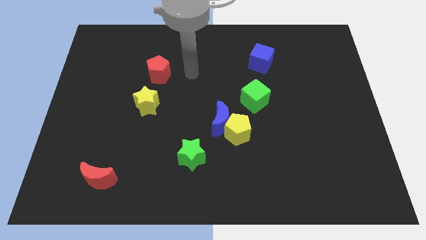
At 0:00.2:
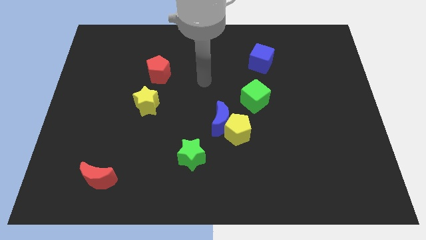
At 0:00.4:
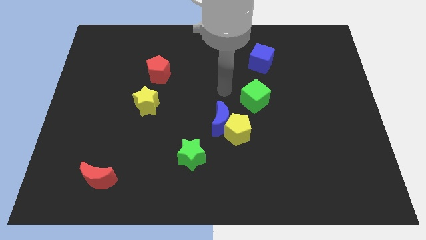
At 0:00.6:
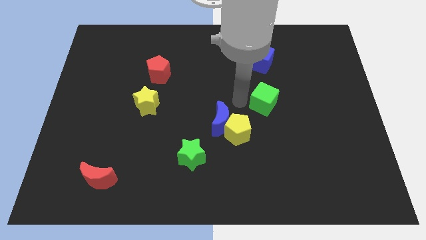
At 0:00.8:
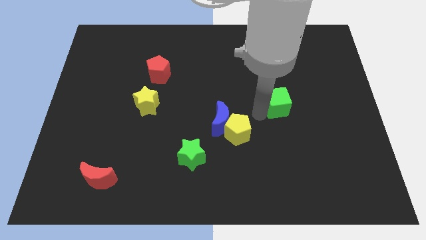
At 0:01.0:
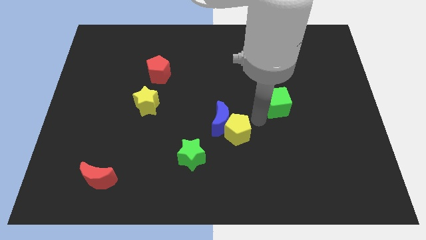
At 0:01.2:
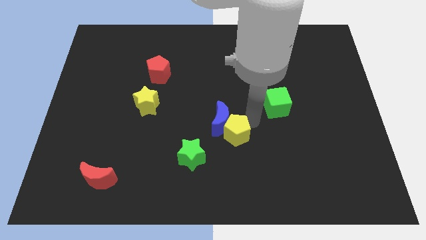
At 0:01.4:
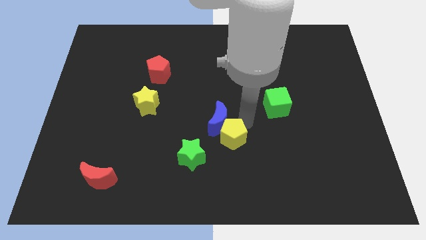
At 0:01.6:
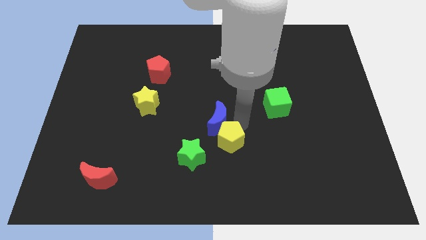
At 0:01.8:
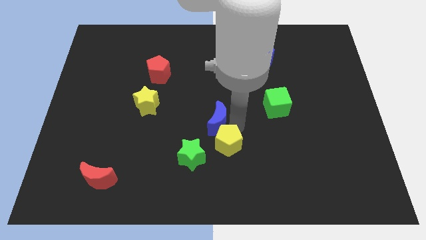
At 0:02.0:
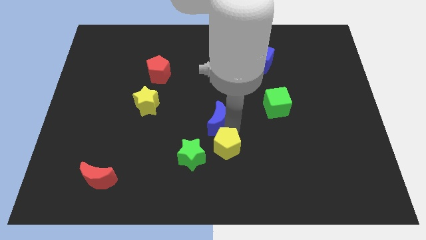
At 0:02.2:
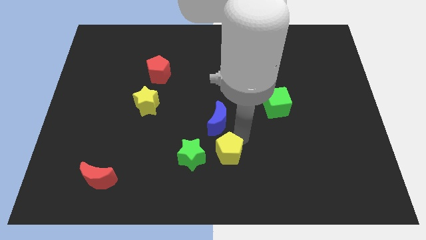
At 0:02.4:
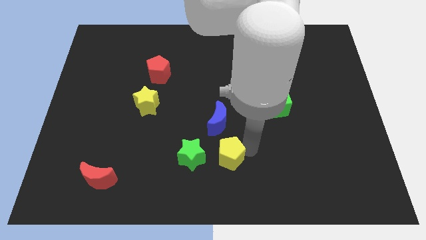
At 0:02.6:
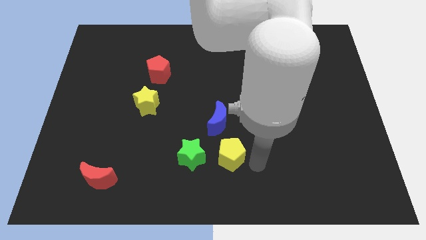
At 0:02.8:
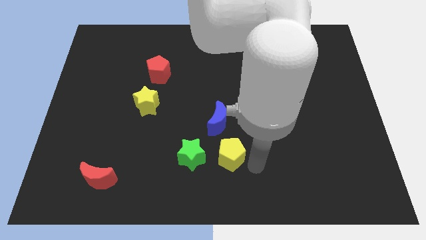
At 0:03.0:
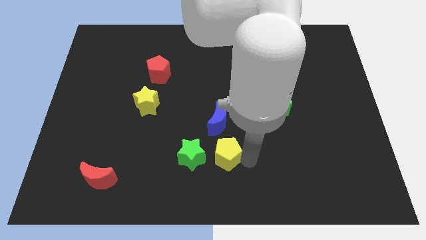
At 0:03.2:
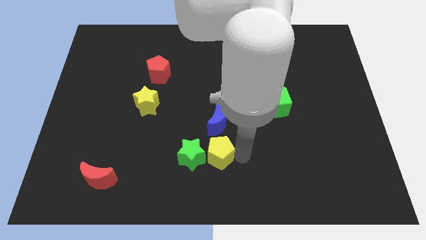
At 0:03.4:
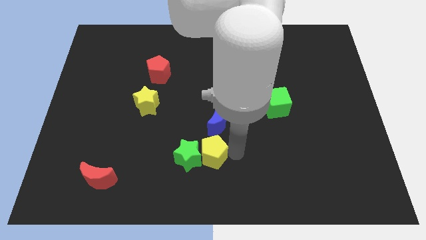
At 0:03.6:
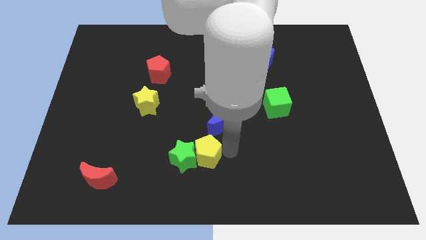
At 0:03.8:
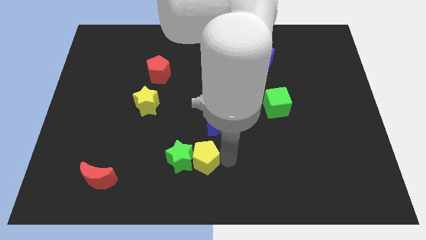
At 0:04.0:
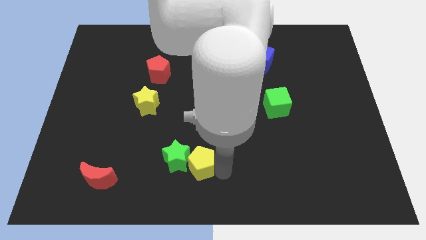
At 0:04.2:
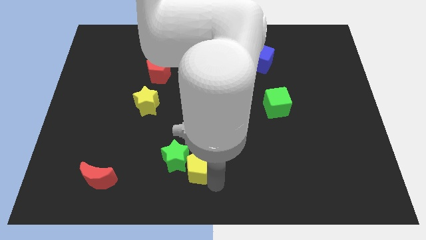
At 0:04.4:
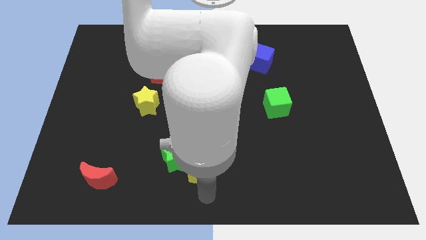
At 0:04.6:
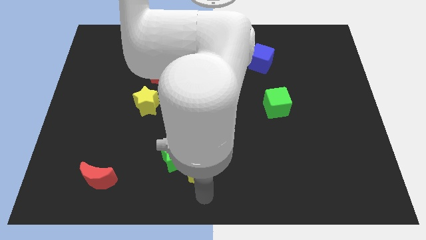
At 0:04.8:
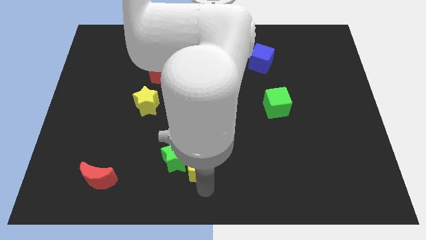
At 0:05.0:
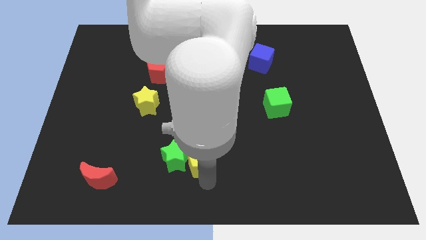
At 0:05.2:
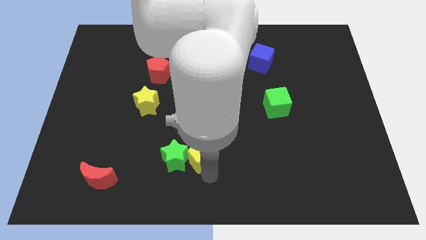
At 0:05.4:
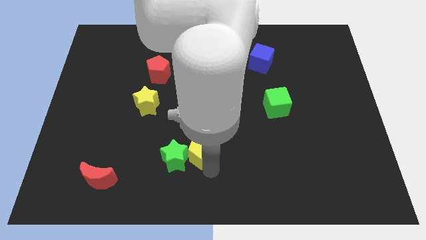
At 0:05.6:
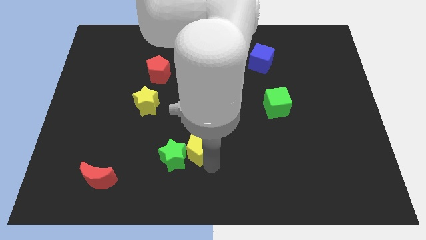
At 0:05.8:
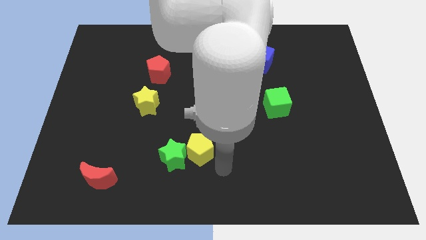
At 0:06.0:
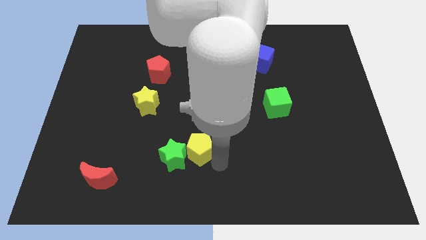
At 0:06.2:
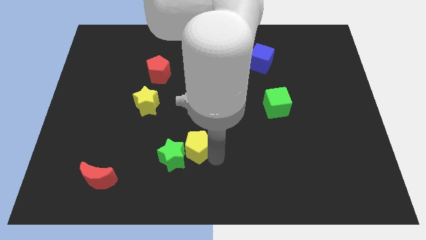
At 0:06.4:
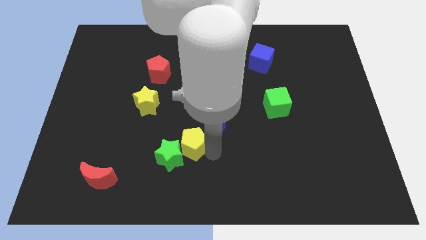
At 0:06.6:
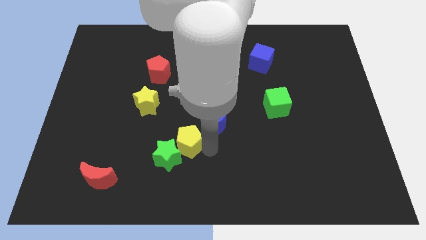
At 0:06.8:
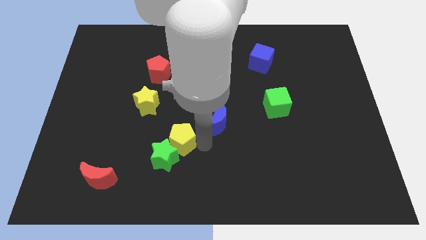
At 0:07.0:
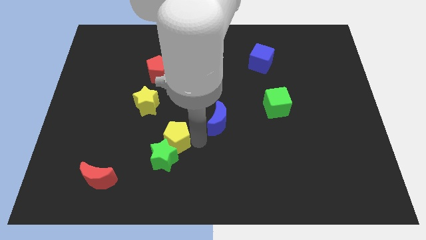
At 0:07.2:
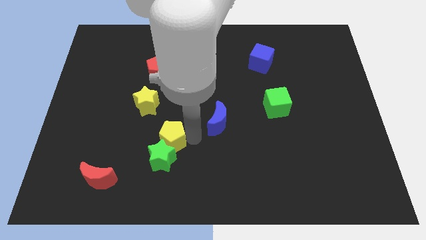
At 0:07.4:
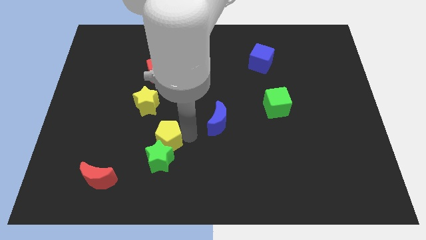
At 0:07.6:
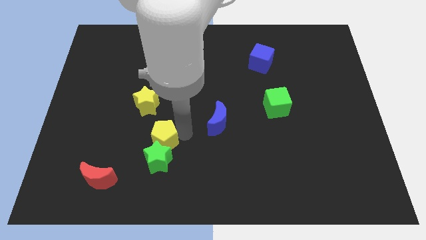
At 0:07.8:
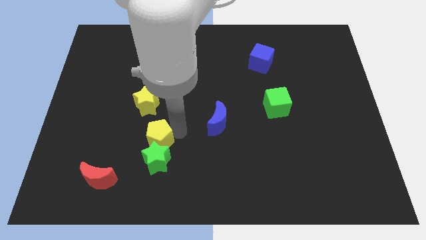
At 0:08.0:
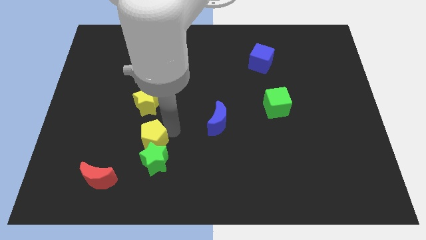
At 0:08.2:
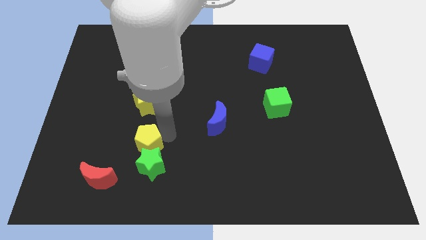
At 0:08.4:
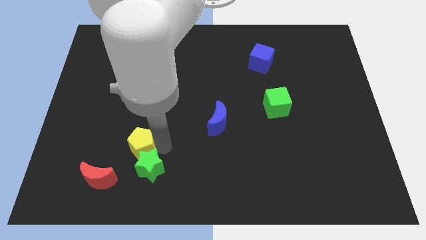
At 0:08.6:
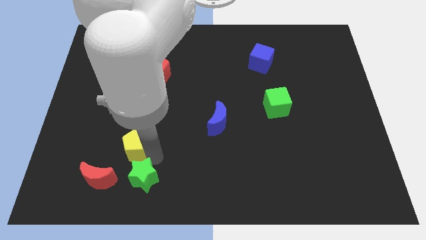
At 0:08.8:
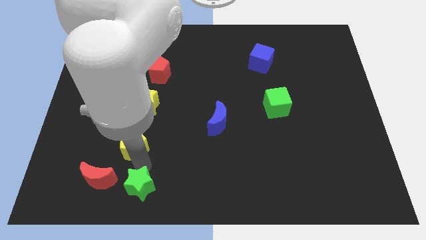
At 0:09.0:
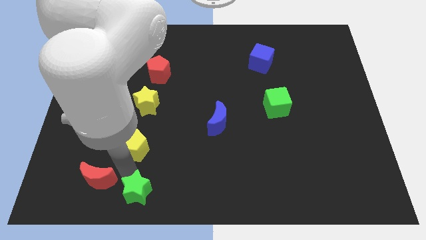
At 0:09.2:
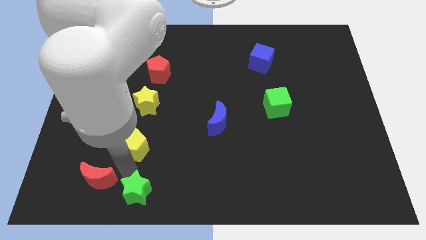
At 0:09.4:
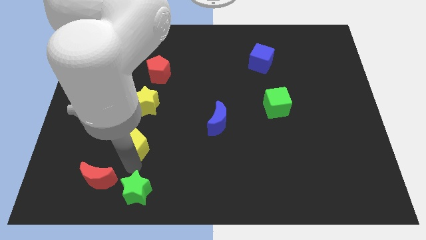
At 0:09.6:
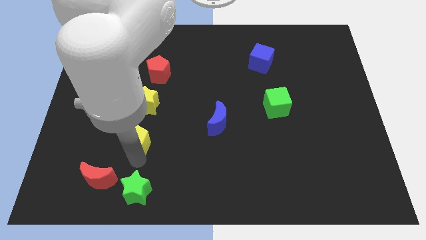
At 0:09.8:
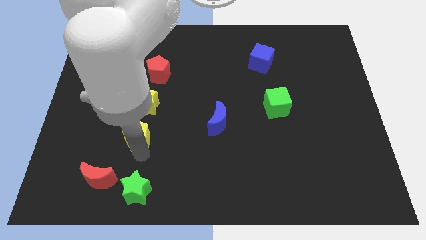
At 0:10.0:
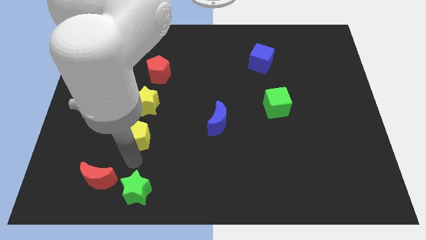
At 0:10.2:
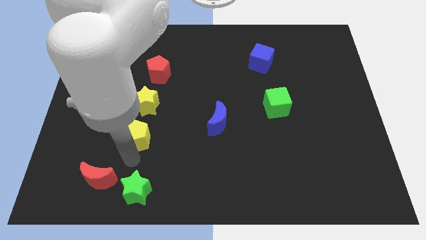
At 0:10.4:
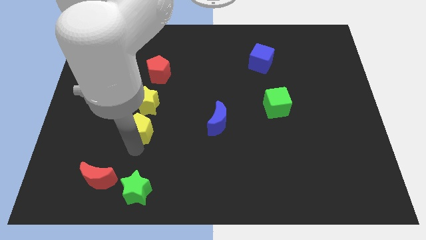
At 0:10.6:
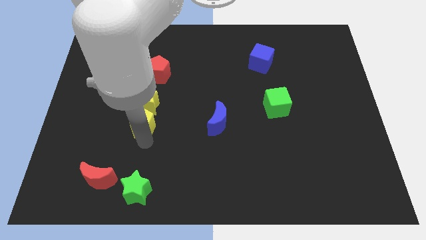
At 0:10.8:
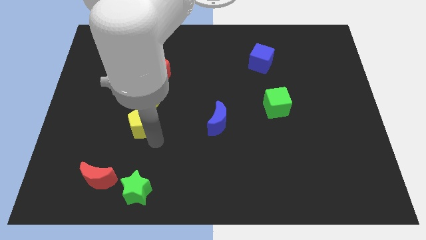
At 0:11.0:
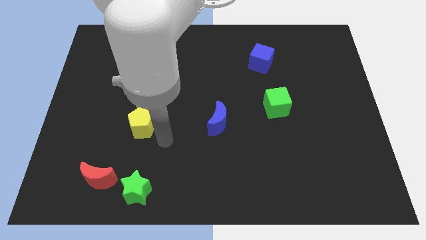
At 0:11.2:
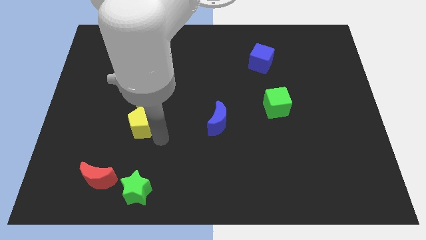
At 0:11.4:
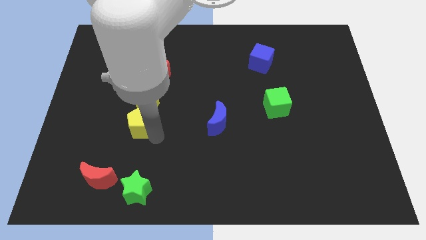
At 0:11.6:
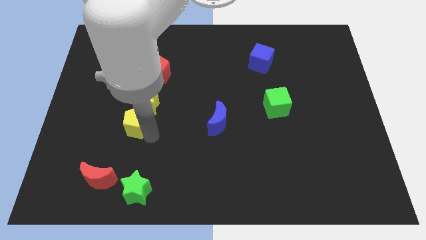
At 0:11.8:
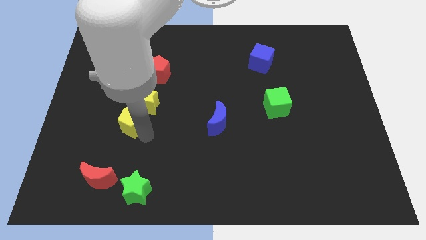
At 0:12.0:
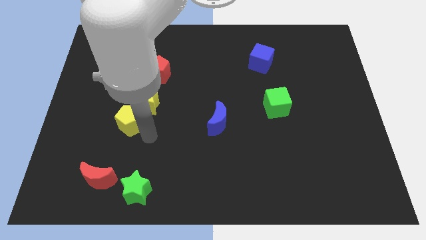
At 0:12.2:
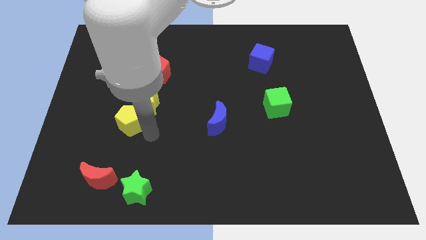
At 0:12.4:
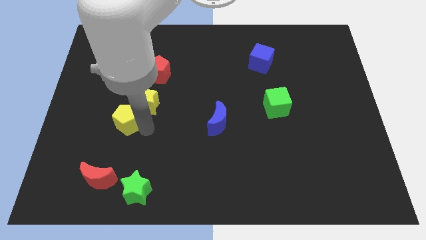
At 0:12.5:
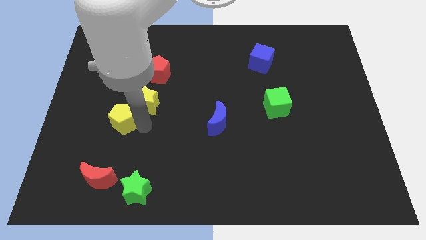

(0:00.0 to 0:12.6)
slide the yellow pentagon just left of the yellow star

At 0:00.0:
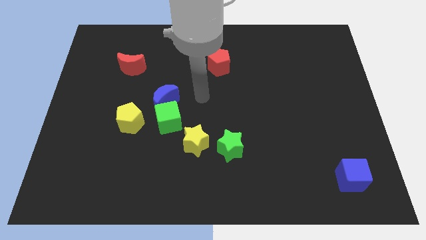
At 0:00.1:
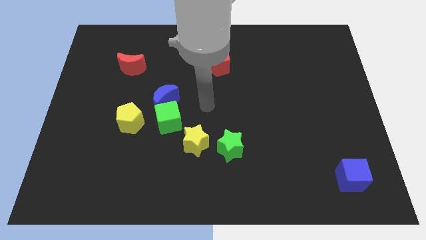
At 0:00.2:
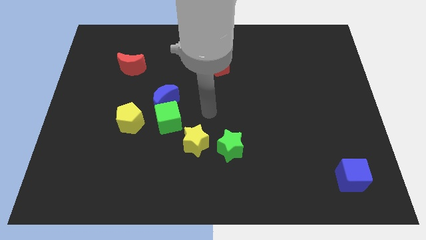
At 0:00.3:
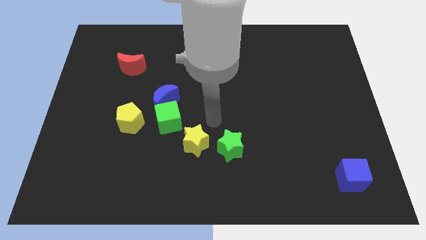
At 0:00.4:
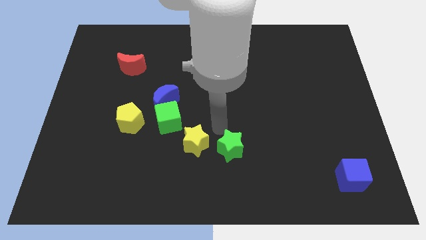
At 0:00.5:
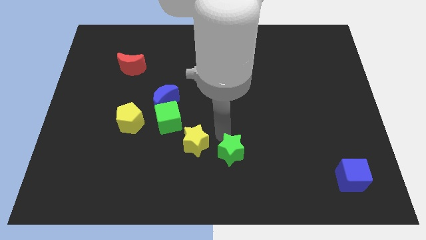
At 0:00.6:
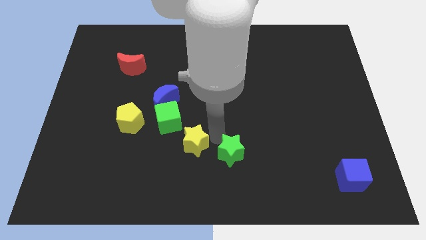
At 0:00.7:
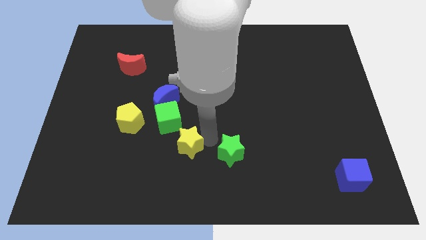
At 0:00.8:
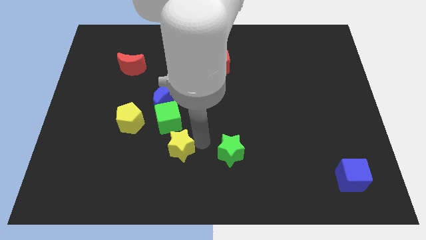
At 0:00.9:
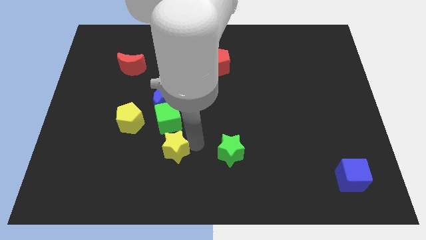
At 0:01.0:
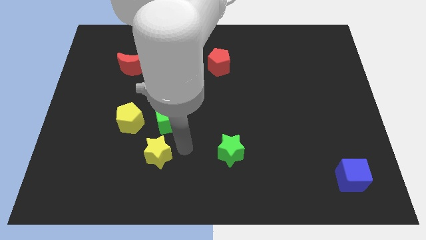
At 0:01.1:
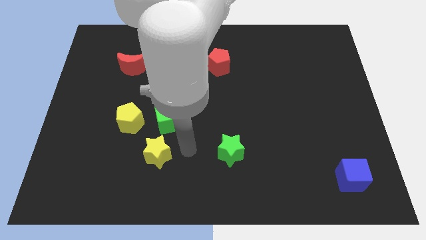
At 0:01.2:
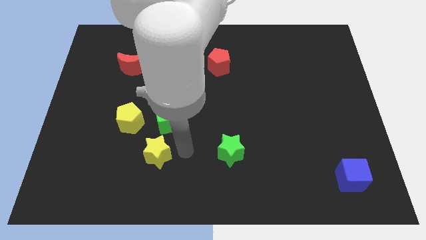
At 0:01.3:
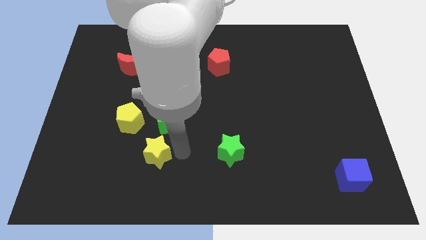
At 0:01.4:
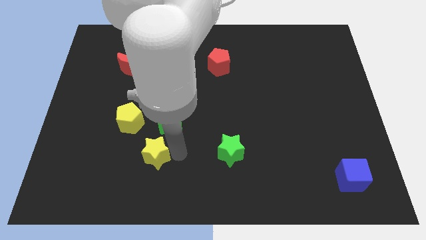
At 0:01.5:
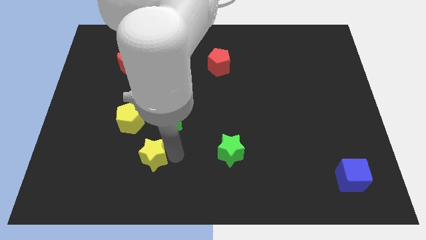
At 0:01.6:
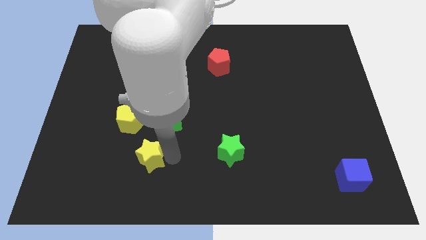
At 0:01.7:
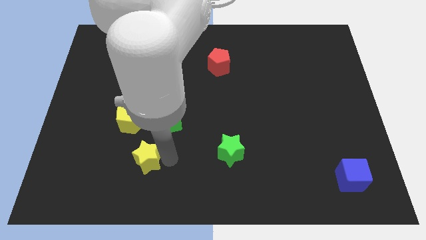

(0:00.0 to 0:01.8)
put the yellow star to the bottom of the yellow pentagon
